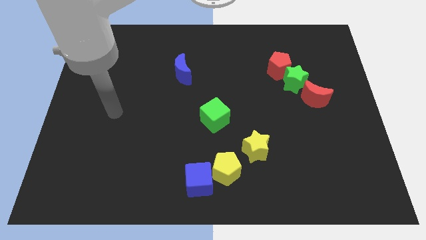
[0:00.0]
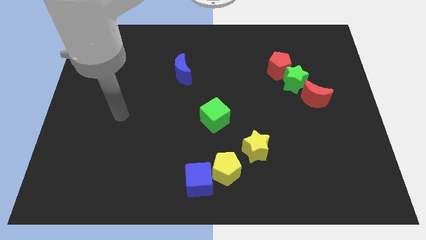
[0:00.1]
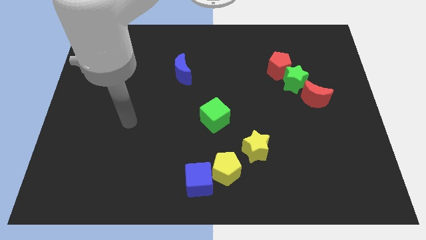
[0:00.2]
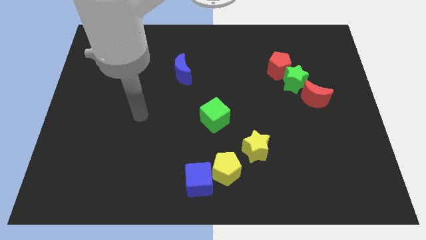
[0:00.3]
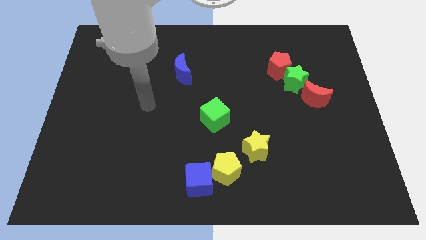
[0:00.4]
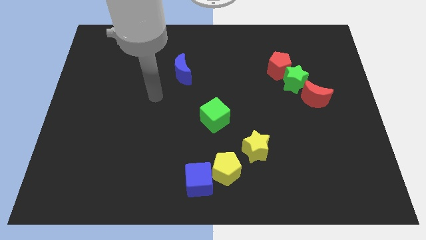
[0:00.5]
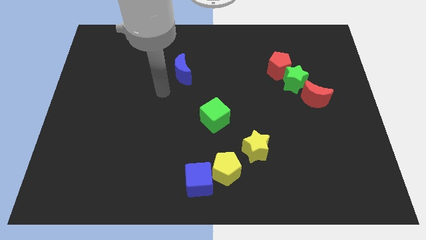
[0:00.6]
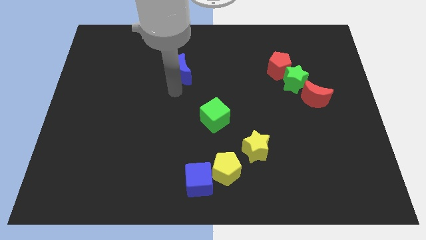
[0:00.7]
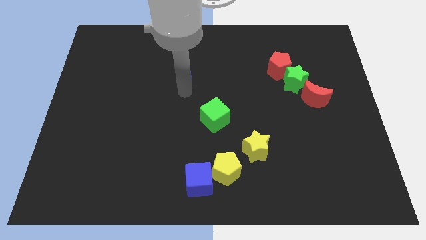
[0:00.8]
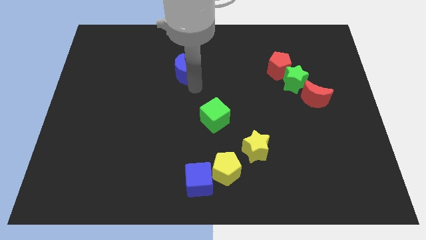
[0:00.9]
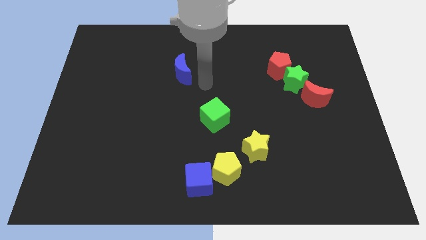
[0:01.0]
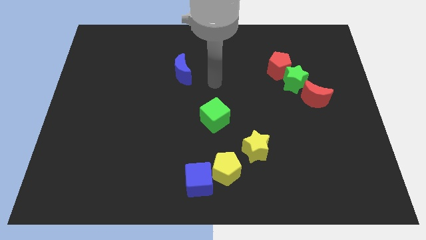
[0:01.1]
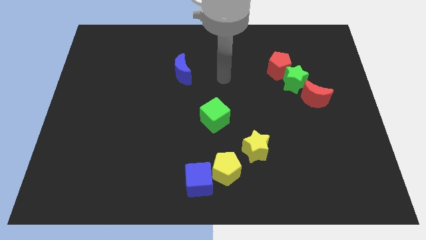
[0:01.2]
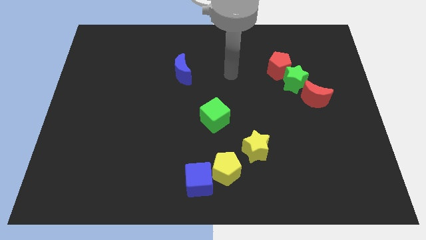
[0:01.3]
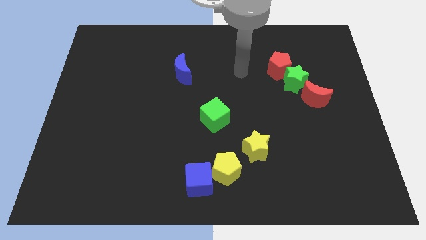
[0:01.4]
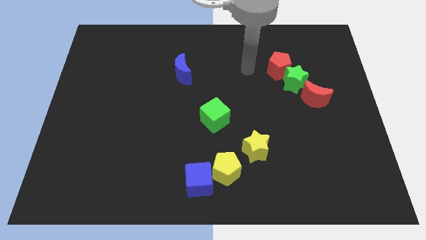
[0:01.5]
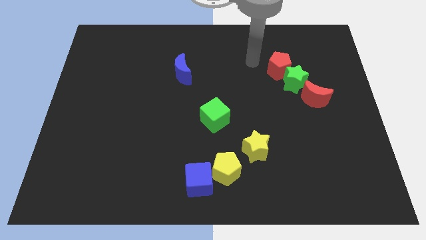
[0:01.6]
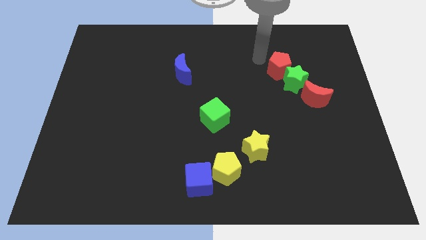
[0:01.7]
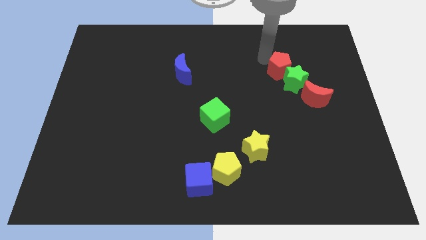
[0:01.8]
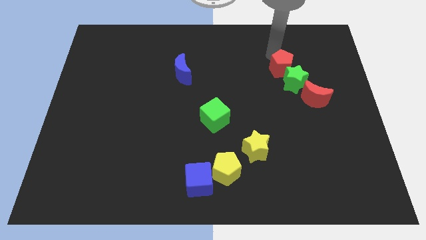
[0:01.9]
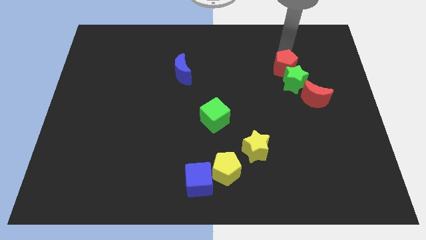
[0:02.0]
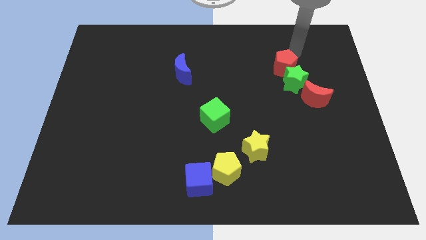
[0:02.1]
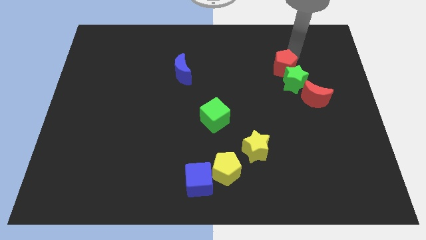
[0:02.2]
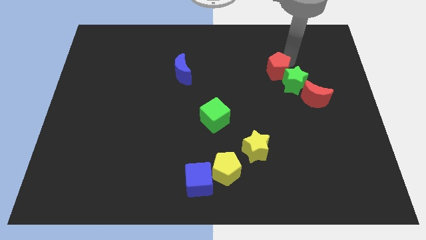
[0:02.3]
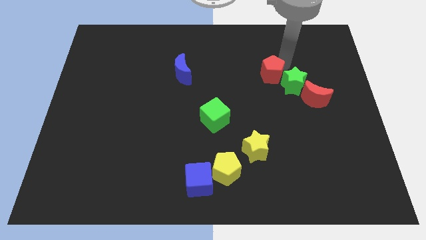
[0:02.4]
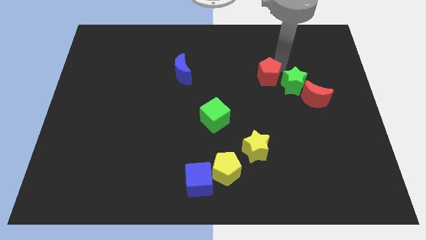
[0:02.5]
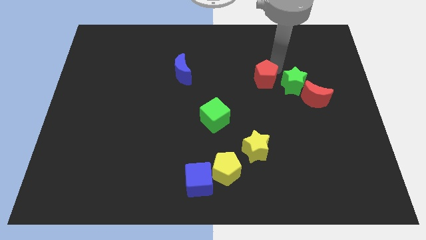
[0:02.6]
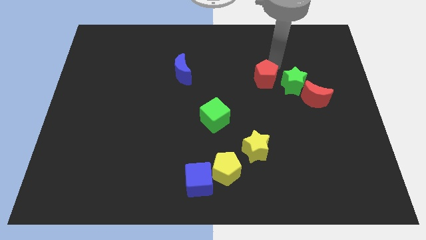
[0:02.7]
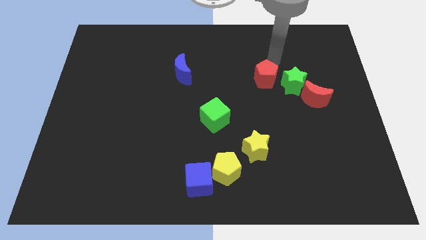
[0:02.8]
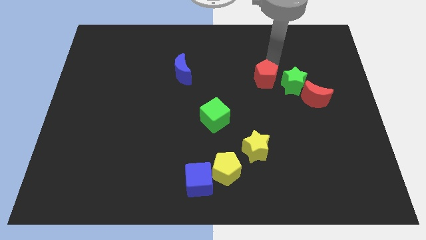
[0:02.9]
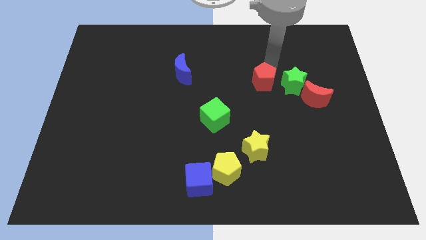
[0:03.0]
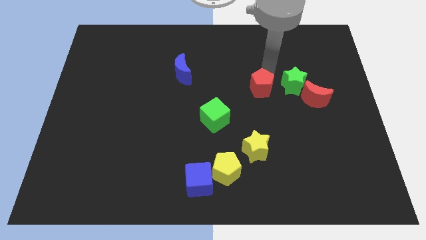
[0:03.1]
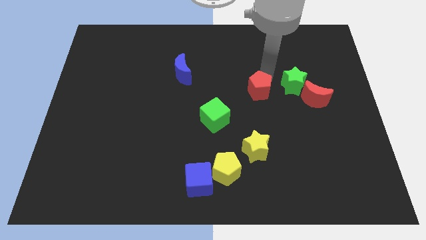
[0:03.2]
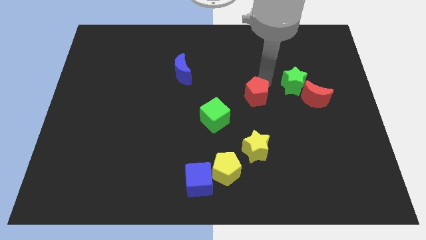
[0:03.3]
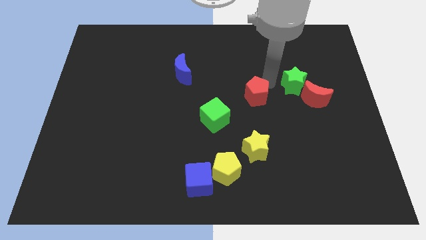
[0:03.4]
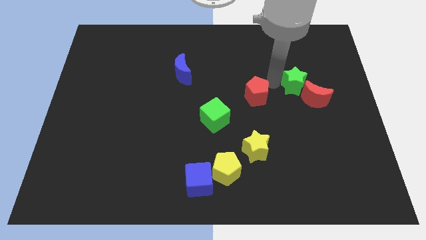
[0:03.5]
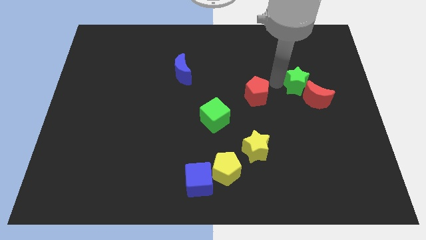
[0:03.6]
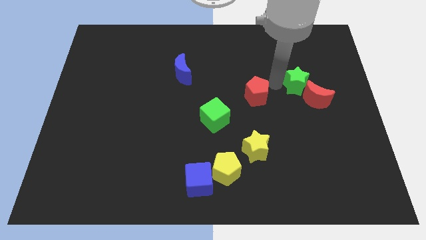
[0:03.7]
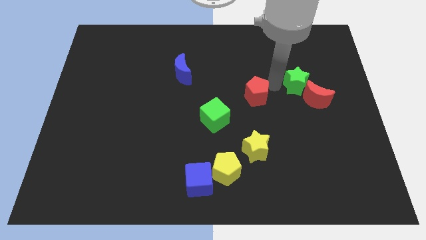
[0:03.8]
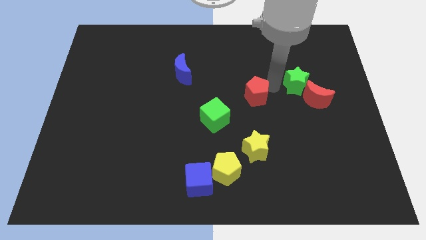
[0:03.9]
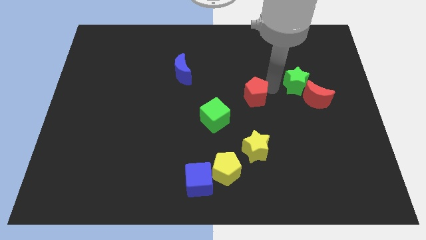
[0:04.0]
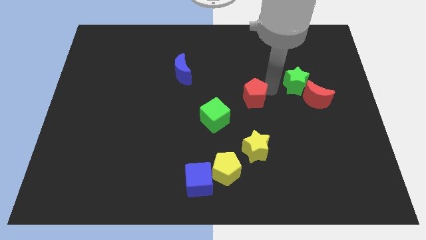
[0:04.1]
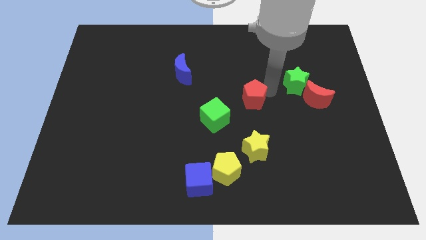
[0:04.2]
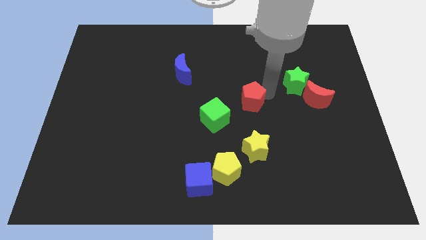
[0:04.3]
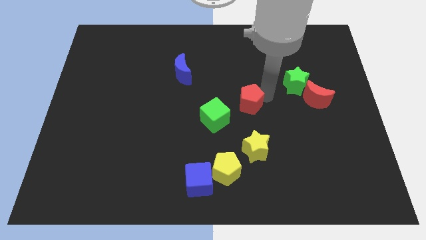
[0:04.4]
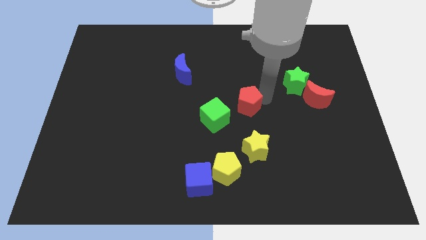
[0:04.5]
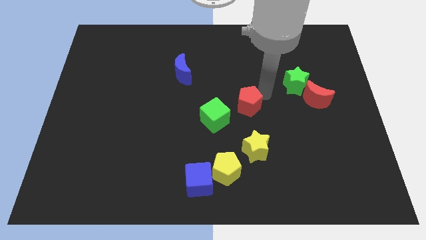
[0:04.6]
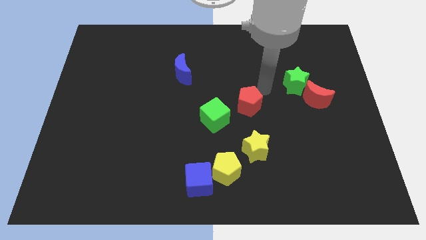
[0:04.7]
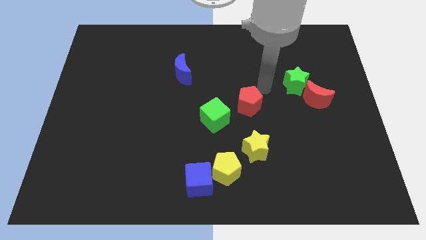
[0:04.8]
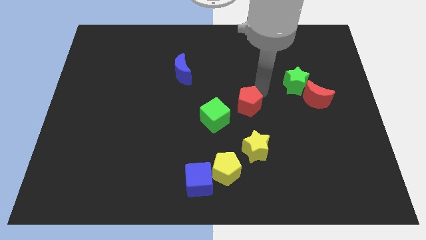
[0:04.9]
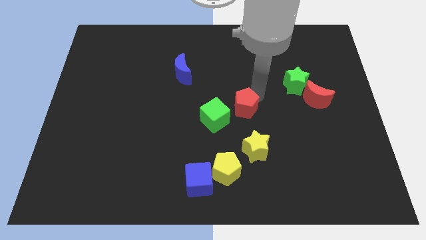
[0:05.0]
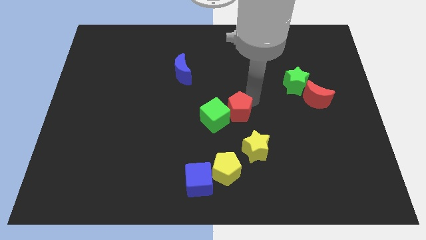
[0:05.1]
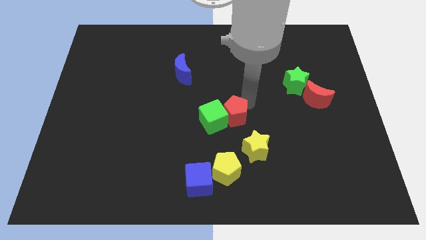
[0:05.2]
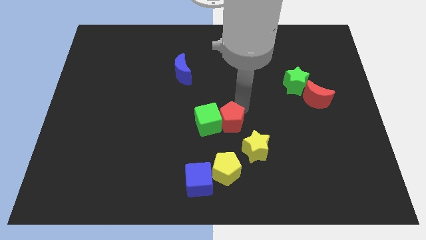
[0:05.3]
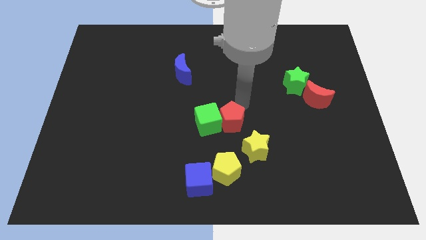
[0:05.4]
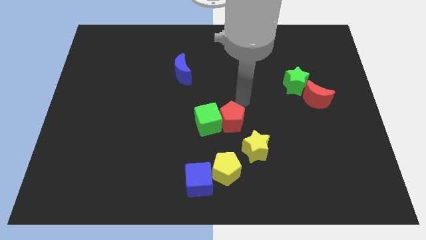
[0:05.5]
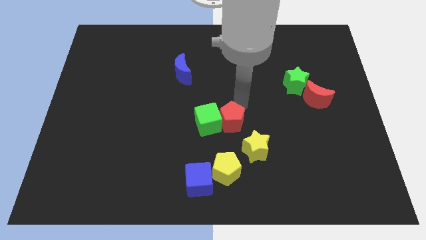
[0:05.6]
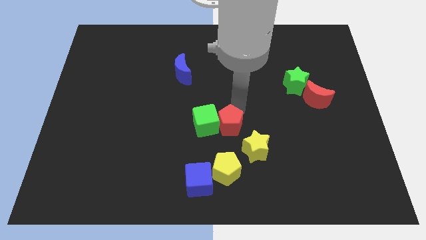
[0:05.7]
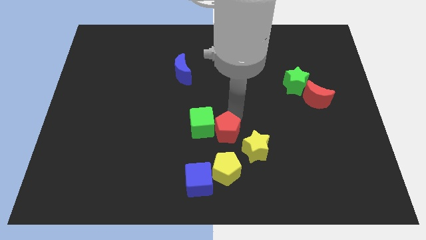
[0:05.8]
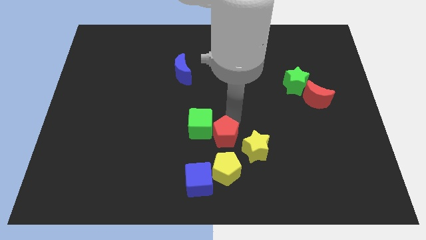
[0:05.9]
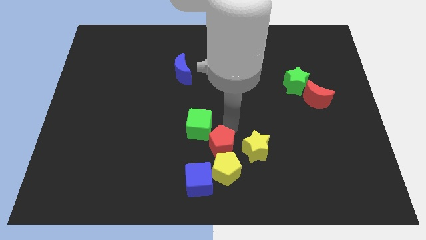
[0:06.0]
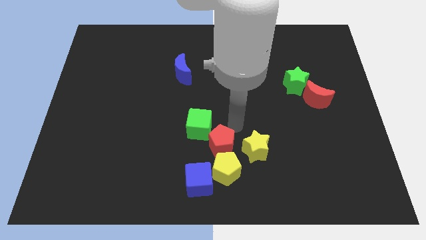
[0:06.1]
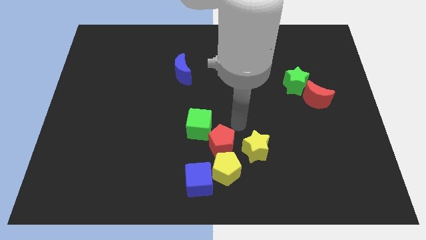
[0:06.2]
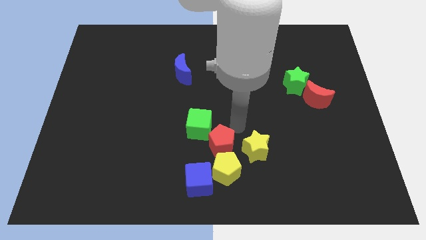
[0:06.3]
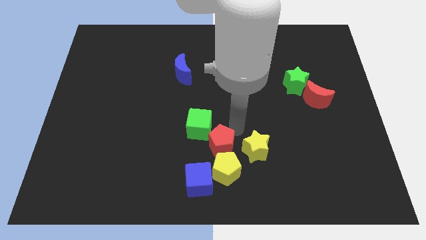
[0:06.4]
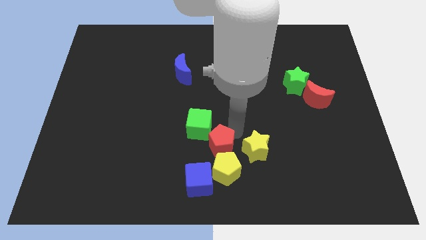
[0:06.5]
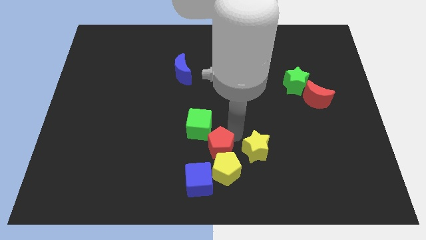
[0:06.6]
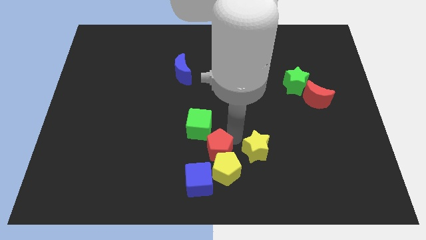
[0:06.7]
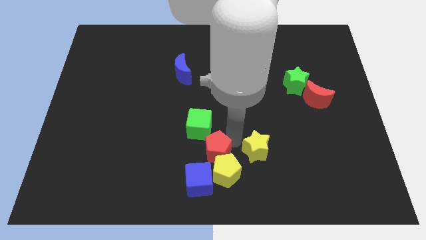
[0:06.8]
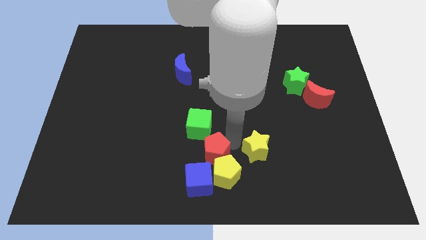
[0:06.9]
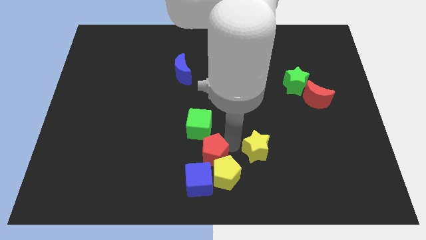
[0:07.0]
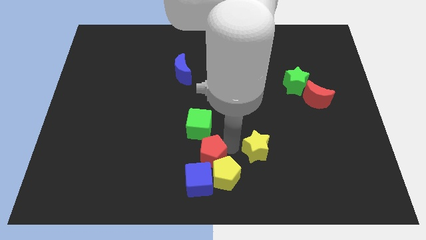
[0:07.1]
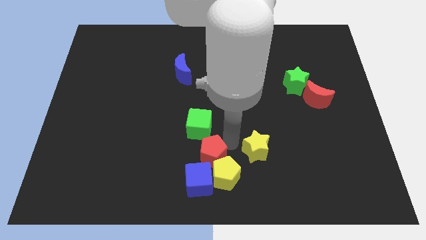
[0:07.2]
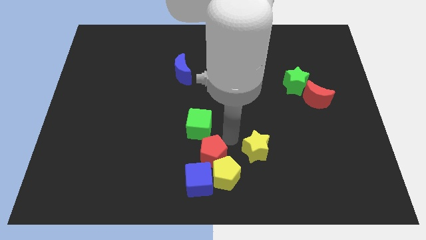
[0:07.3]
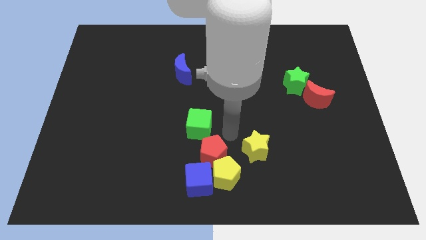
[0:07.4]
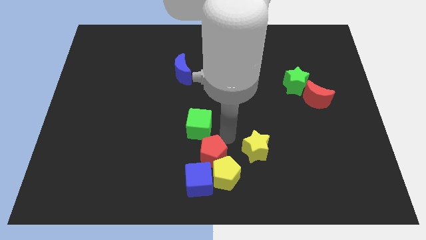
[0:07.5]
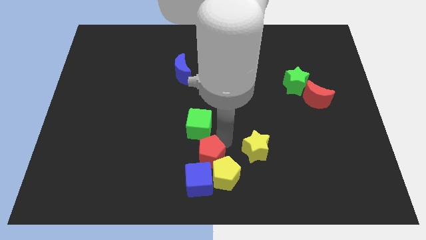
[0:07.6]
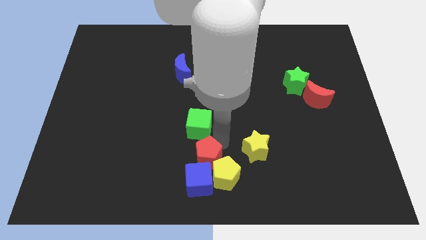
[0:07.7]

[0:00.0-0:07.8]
put the red pentagon close to the blue cube

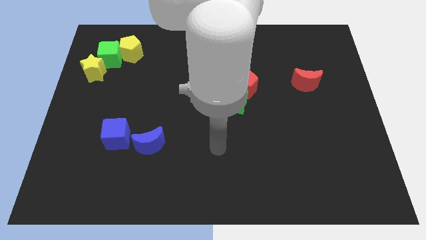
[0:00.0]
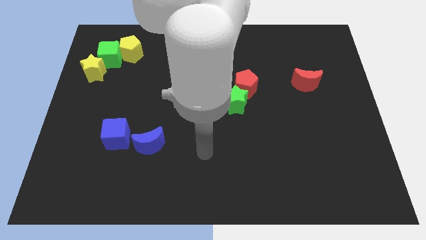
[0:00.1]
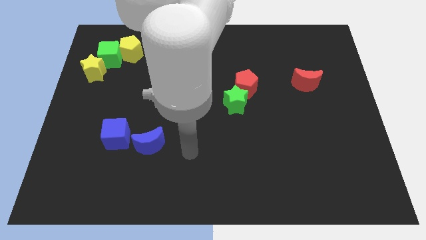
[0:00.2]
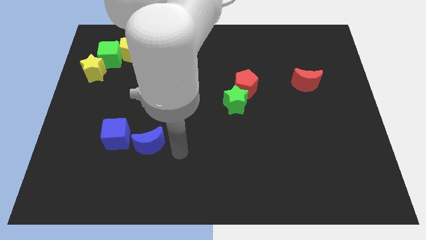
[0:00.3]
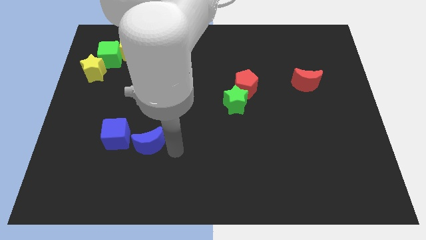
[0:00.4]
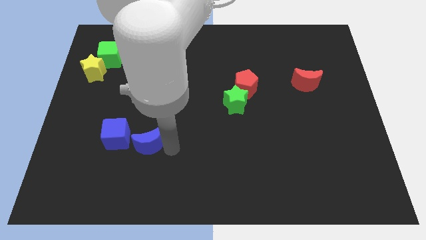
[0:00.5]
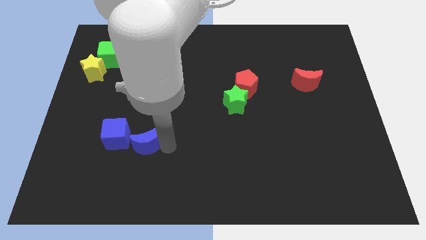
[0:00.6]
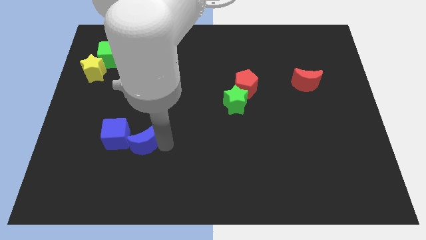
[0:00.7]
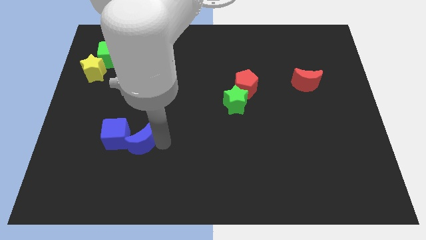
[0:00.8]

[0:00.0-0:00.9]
slide the blue moon to the blue cube
